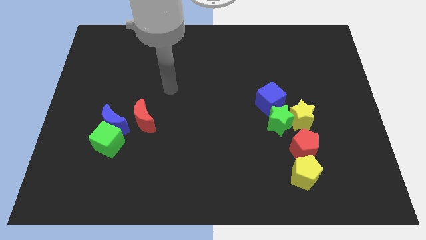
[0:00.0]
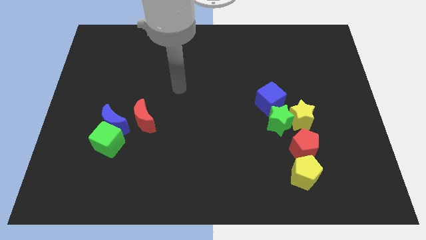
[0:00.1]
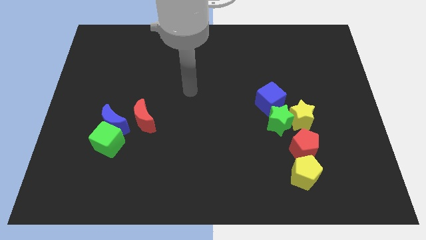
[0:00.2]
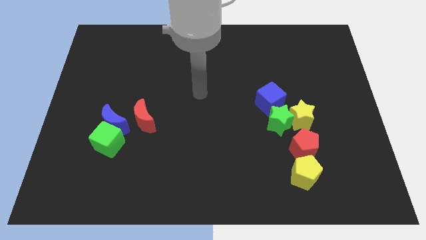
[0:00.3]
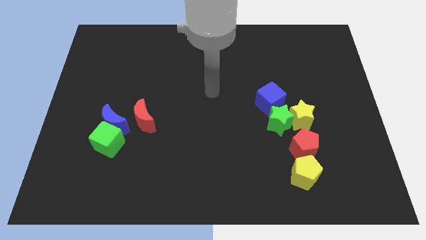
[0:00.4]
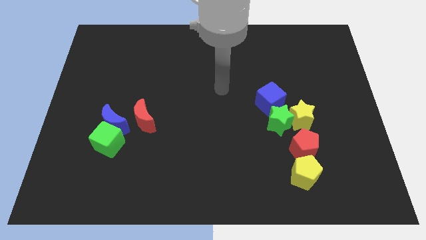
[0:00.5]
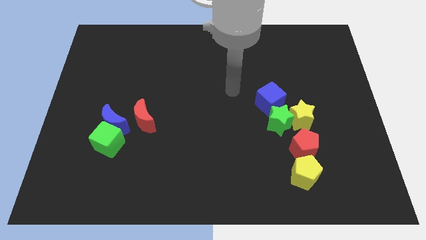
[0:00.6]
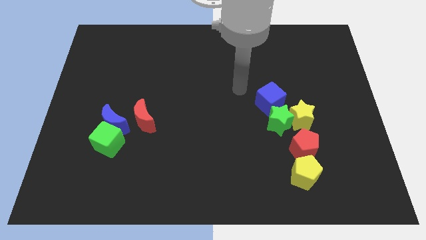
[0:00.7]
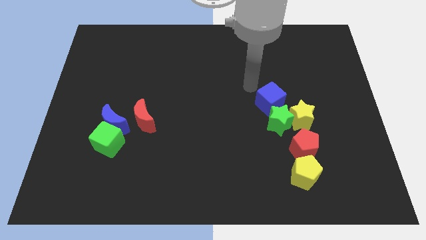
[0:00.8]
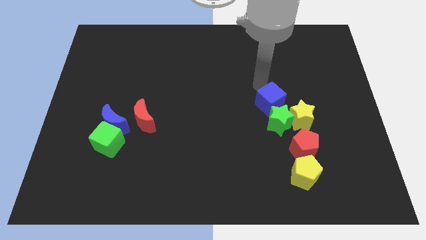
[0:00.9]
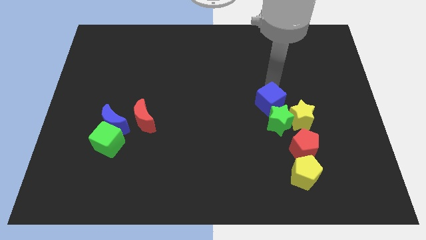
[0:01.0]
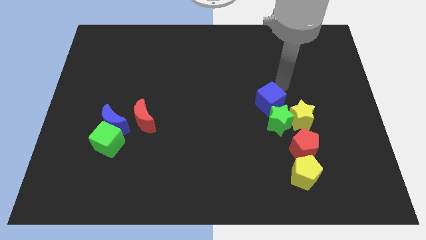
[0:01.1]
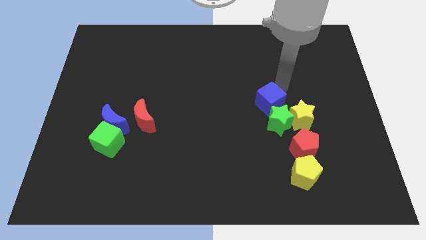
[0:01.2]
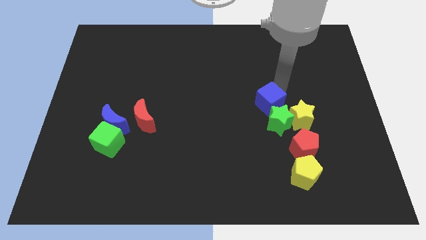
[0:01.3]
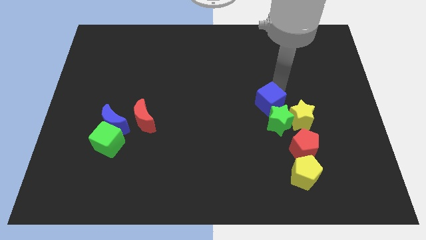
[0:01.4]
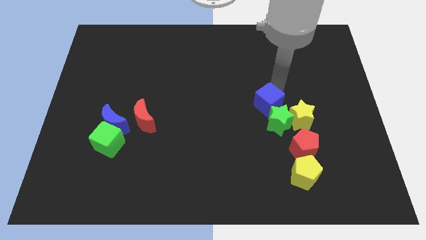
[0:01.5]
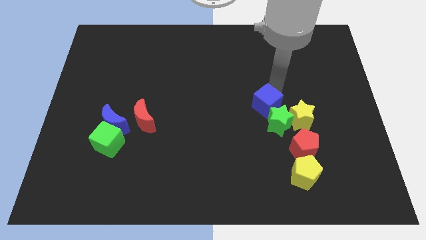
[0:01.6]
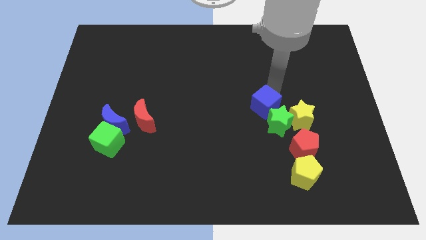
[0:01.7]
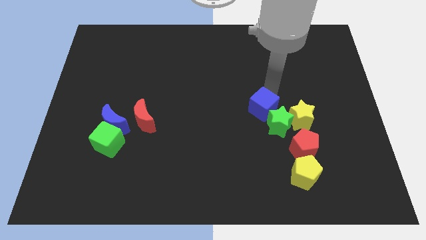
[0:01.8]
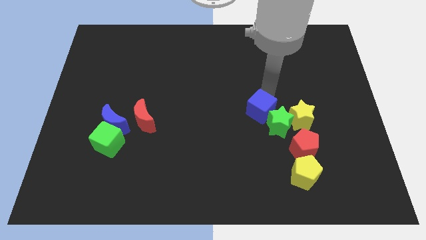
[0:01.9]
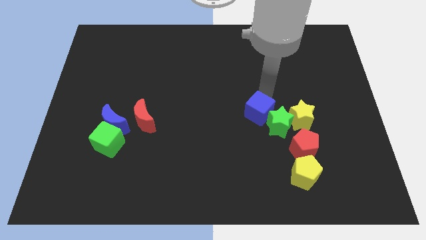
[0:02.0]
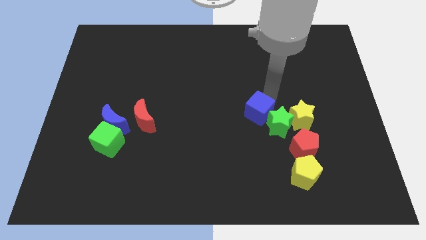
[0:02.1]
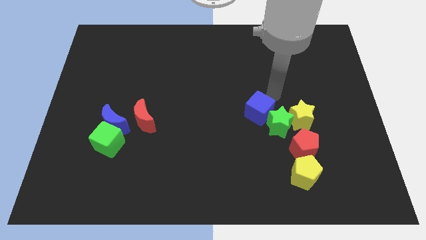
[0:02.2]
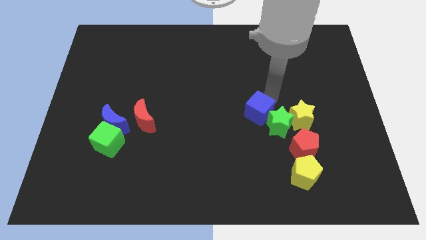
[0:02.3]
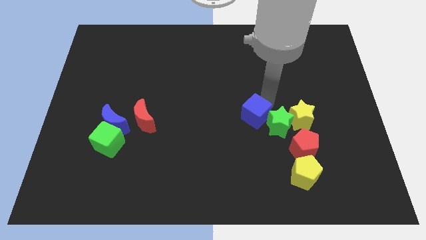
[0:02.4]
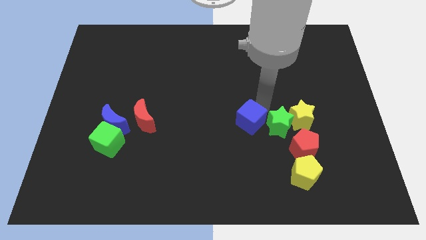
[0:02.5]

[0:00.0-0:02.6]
slightly move the blue cube down and left diagonally

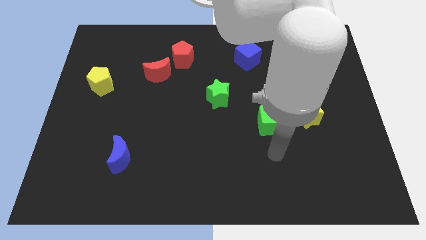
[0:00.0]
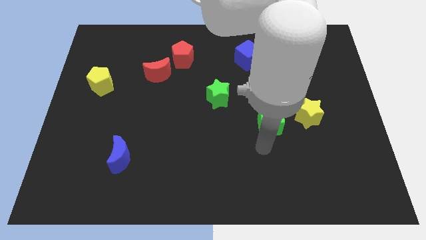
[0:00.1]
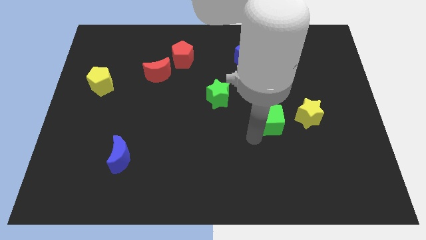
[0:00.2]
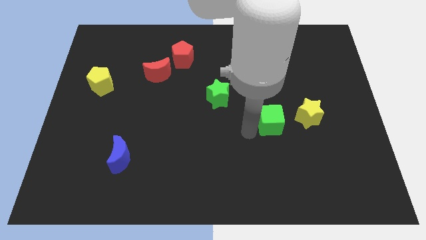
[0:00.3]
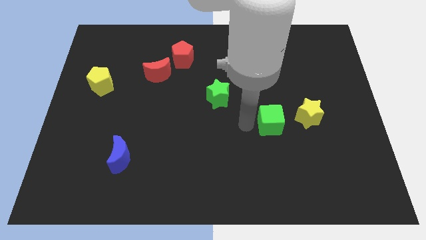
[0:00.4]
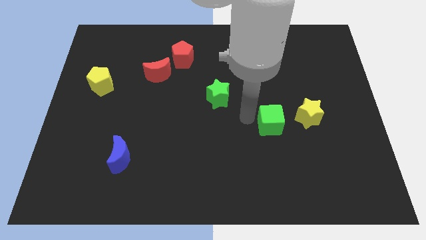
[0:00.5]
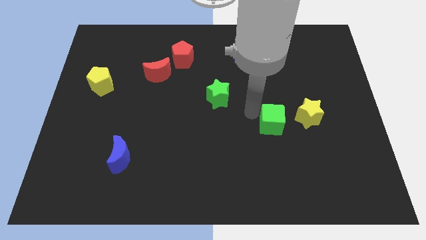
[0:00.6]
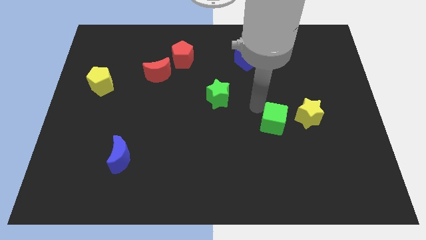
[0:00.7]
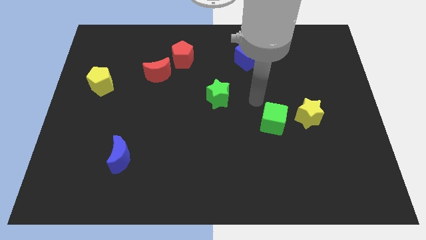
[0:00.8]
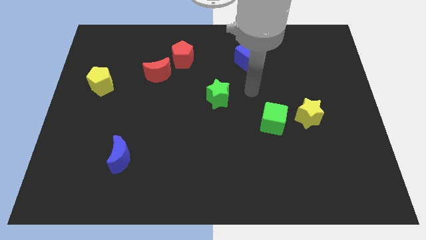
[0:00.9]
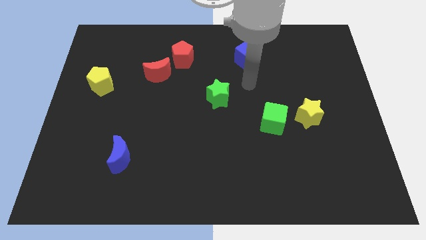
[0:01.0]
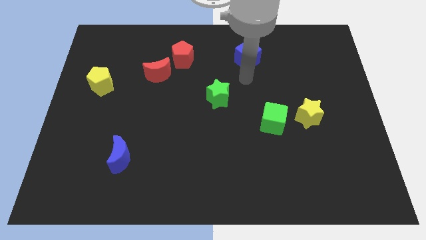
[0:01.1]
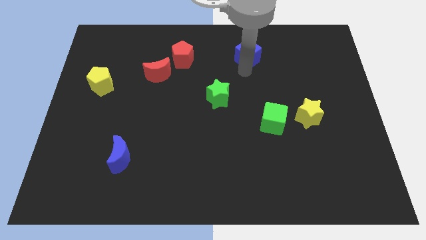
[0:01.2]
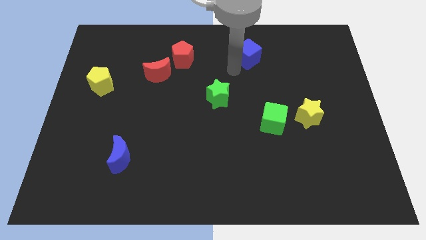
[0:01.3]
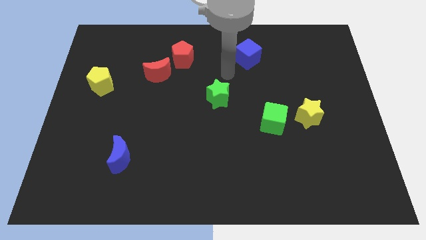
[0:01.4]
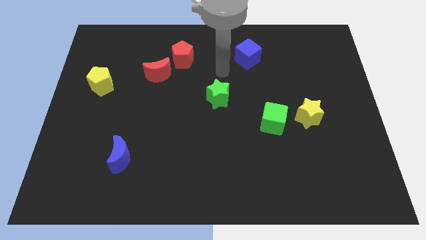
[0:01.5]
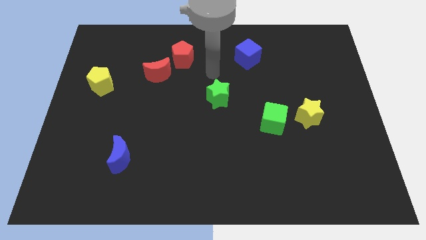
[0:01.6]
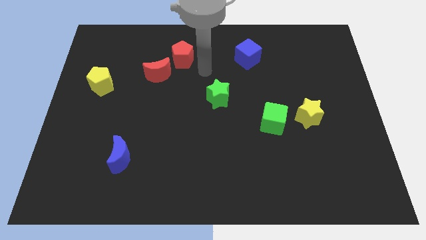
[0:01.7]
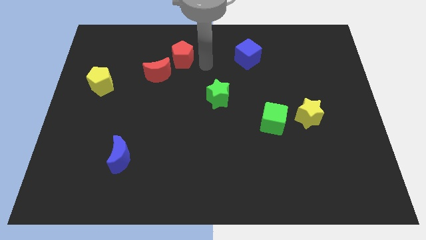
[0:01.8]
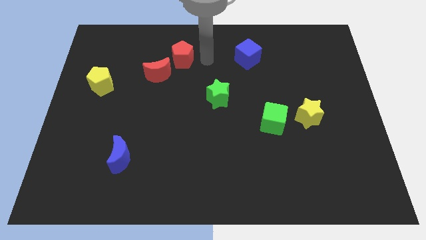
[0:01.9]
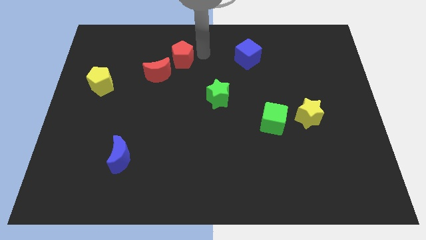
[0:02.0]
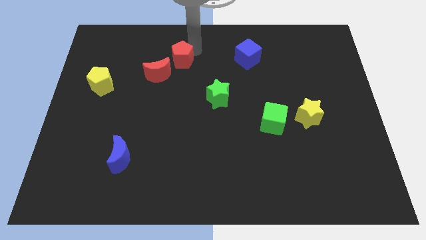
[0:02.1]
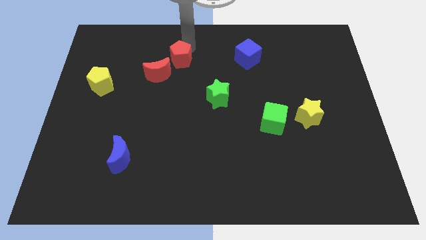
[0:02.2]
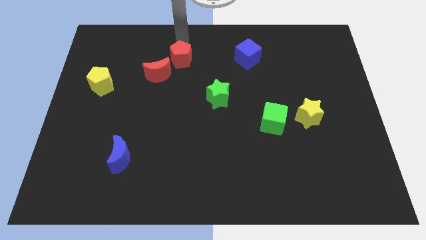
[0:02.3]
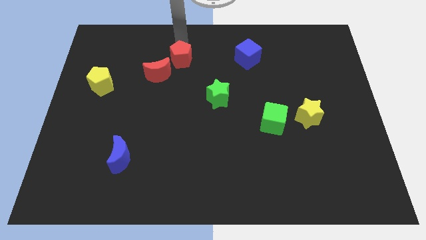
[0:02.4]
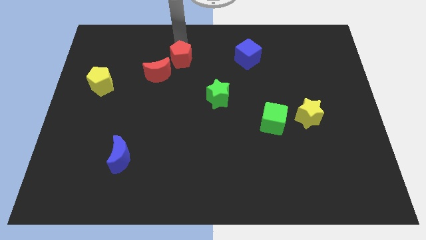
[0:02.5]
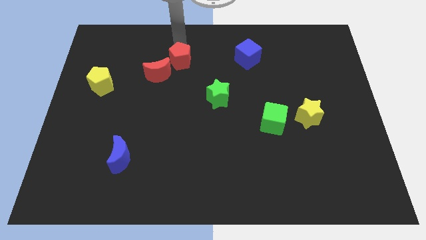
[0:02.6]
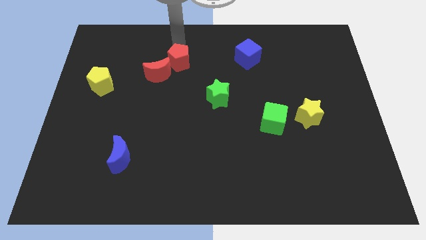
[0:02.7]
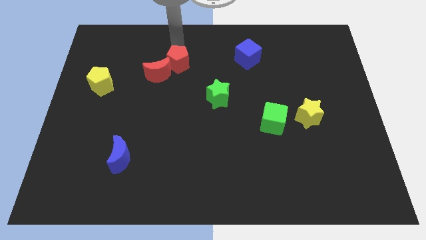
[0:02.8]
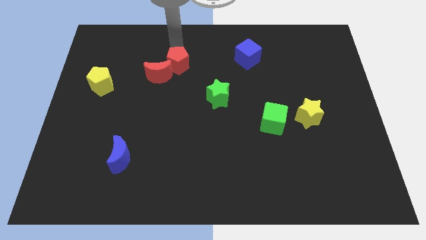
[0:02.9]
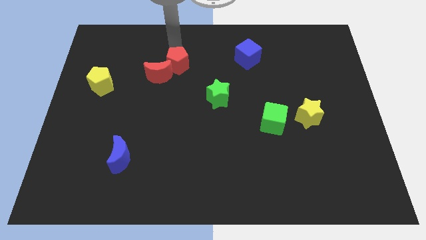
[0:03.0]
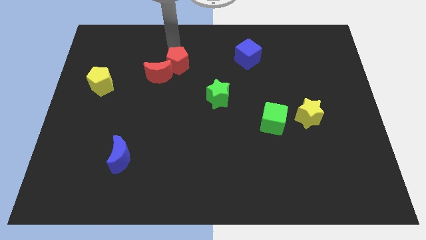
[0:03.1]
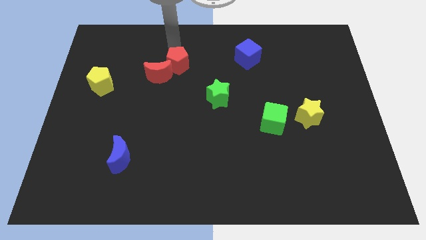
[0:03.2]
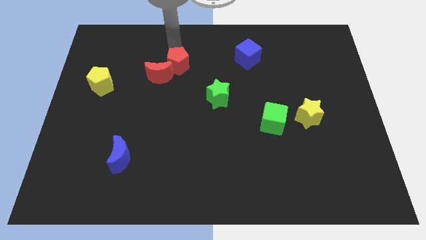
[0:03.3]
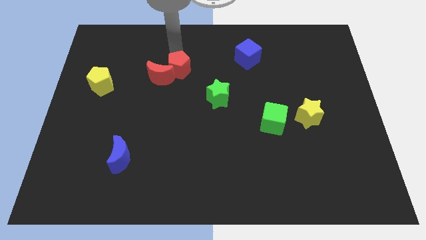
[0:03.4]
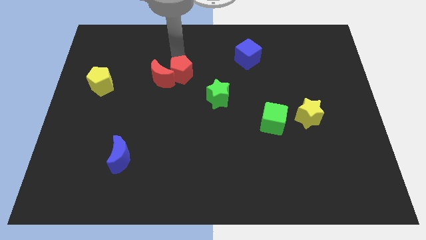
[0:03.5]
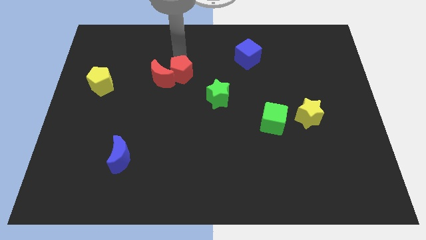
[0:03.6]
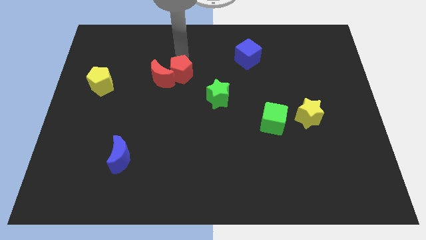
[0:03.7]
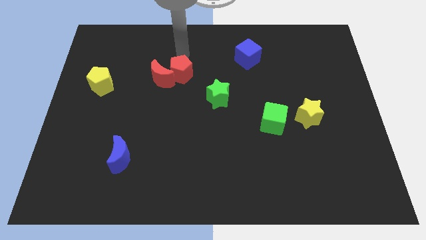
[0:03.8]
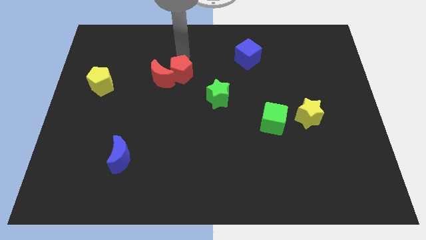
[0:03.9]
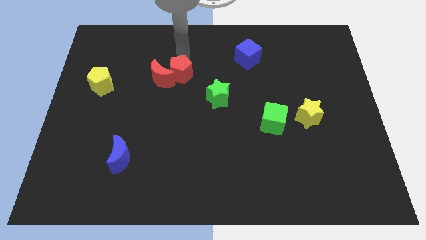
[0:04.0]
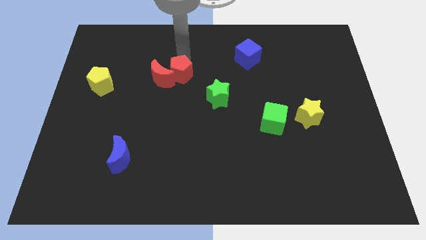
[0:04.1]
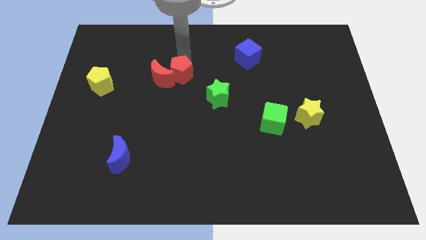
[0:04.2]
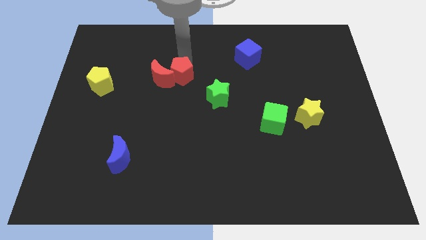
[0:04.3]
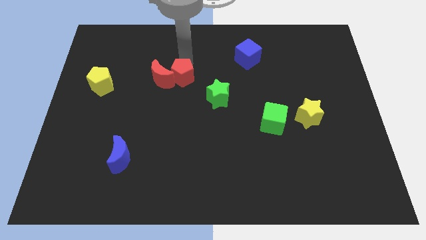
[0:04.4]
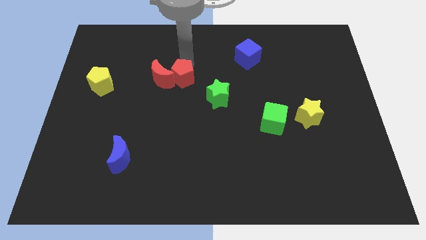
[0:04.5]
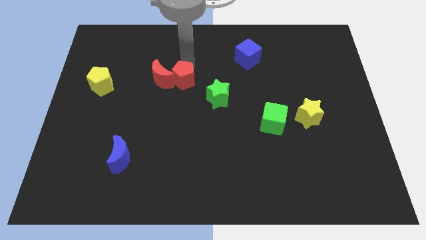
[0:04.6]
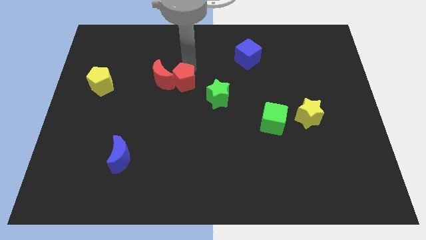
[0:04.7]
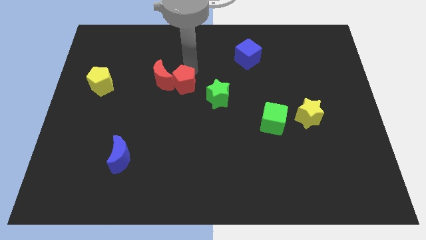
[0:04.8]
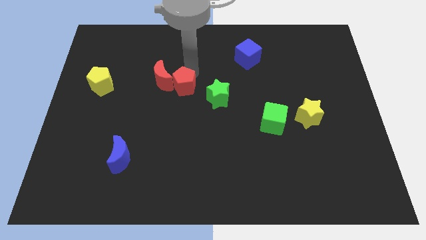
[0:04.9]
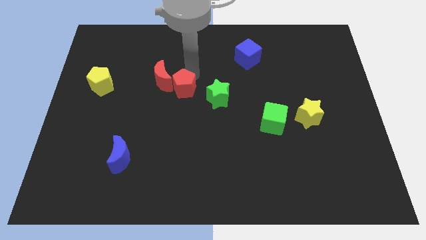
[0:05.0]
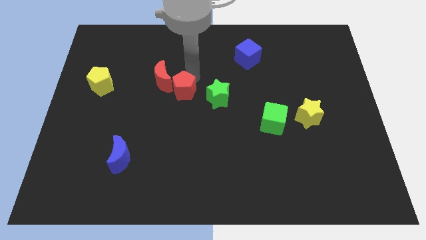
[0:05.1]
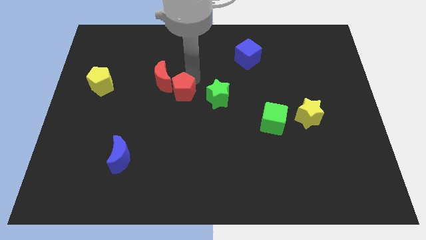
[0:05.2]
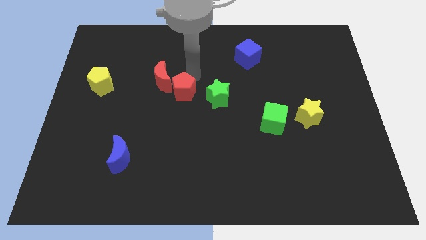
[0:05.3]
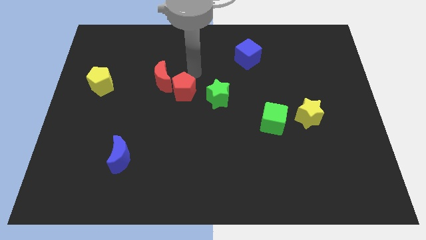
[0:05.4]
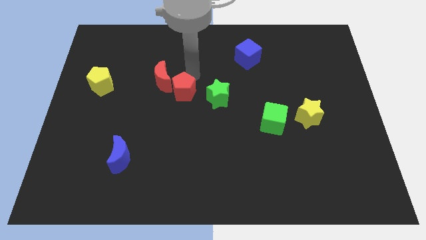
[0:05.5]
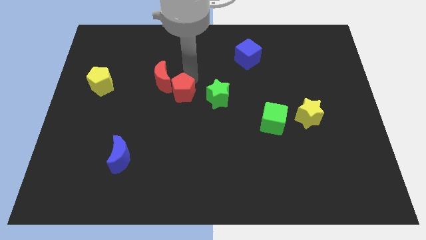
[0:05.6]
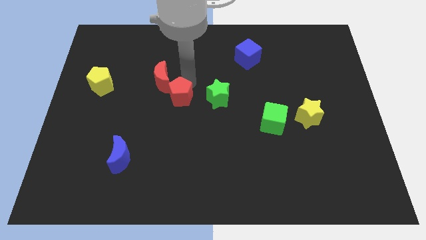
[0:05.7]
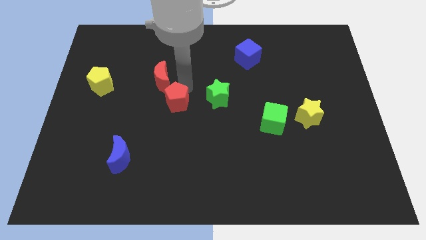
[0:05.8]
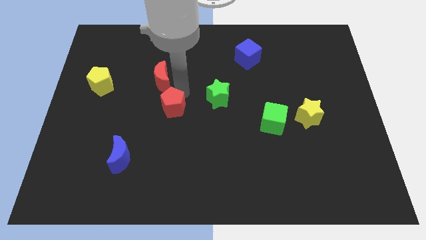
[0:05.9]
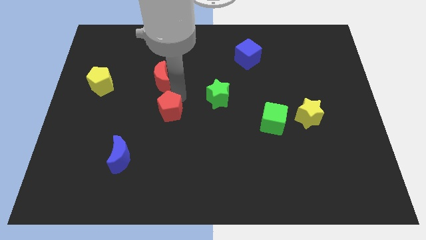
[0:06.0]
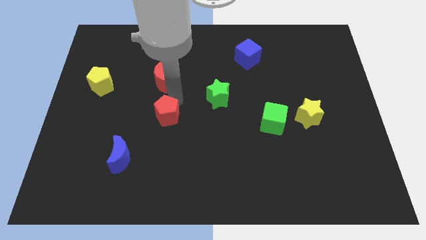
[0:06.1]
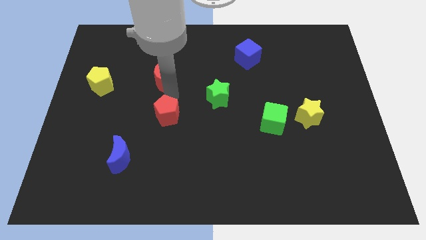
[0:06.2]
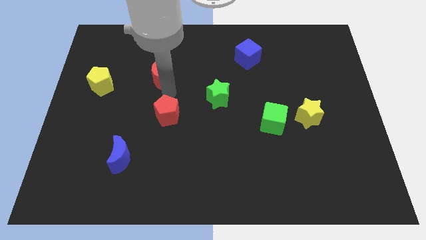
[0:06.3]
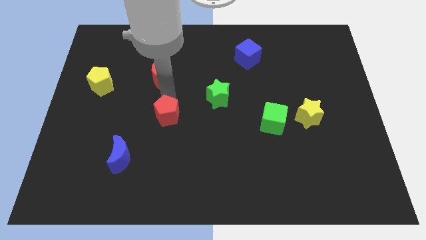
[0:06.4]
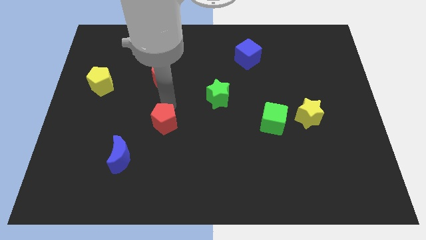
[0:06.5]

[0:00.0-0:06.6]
move the red pentagon downwards
